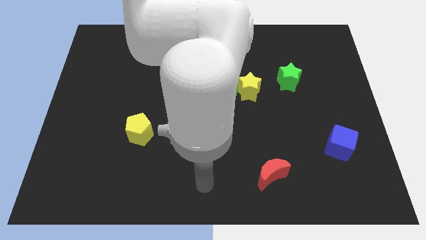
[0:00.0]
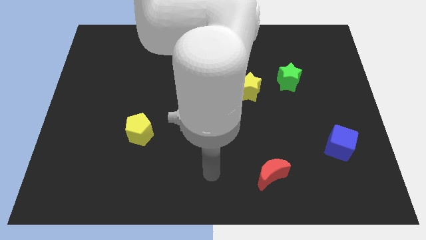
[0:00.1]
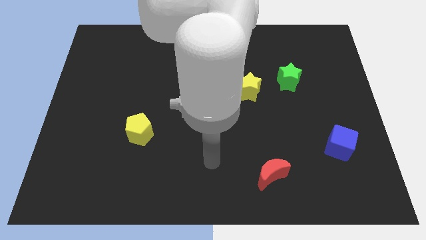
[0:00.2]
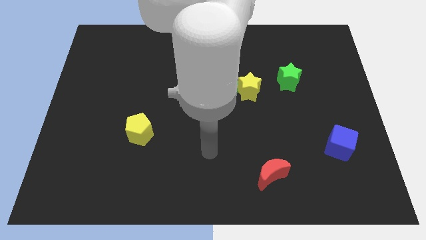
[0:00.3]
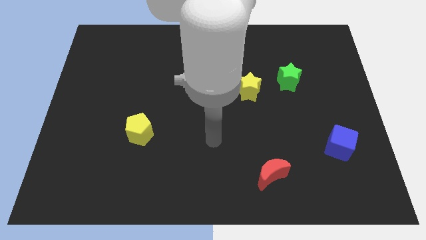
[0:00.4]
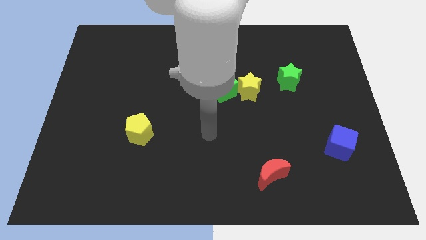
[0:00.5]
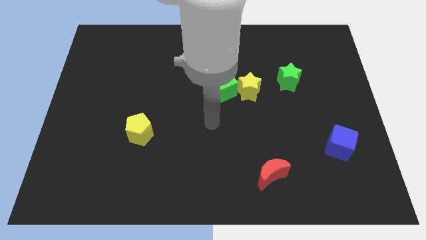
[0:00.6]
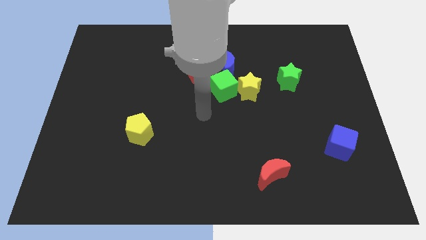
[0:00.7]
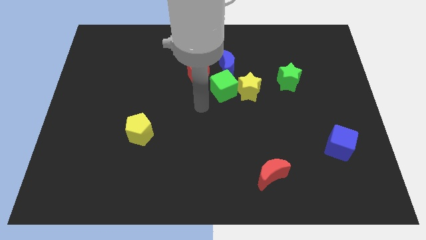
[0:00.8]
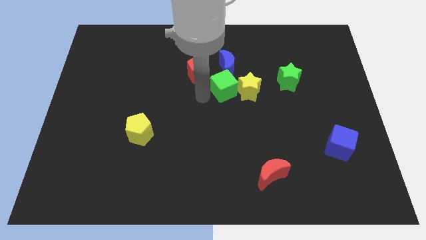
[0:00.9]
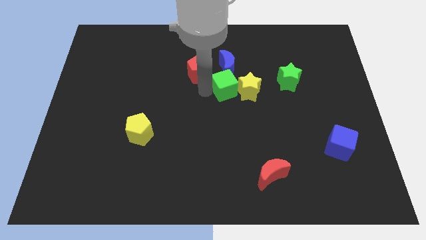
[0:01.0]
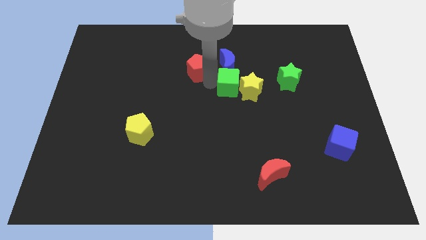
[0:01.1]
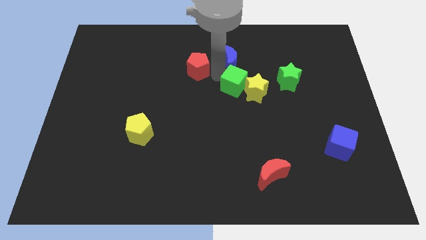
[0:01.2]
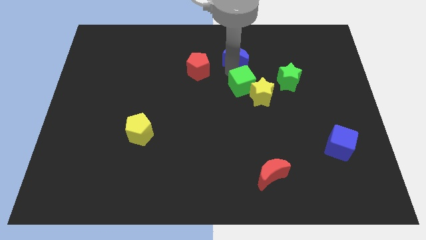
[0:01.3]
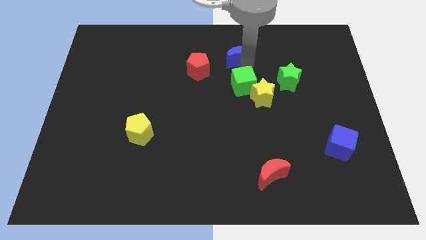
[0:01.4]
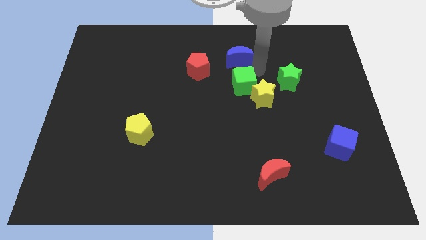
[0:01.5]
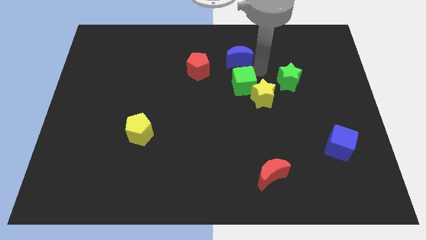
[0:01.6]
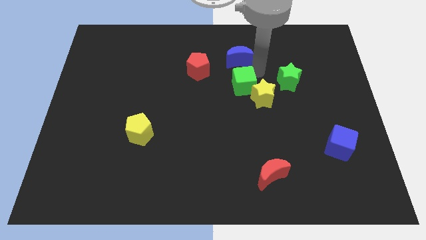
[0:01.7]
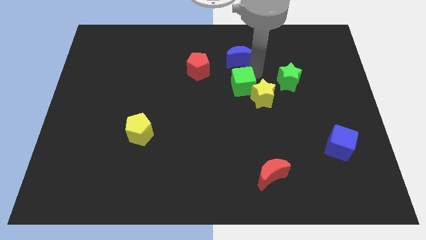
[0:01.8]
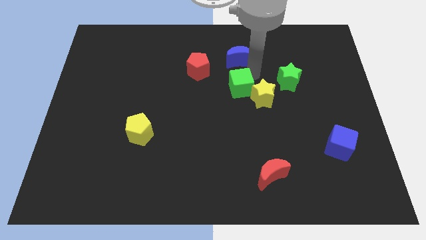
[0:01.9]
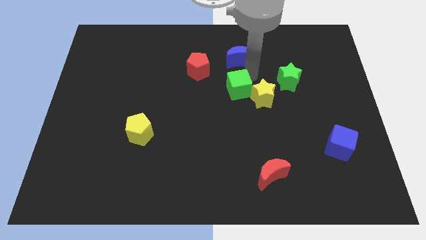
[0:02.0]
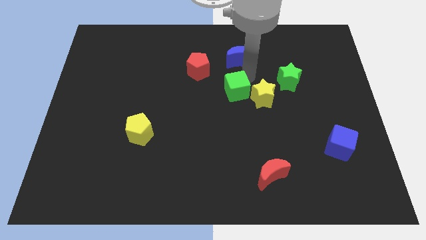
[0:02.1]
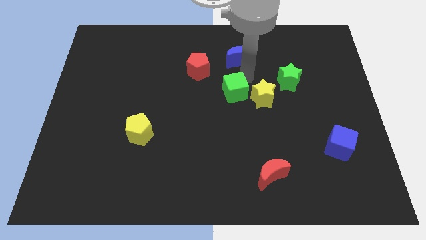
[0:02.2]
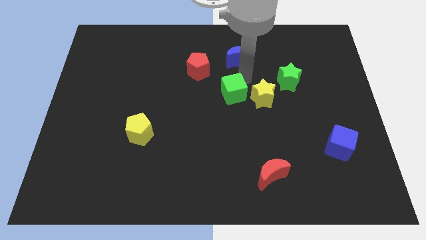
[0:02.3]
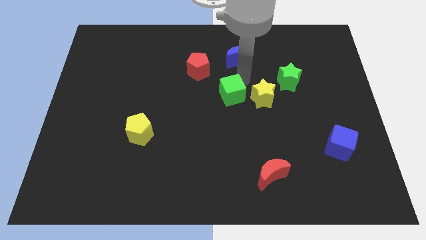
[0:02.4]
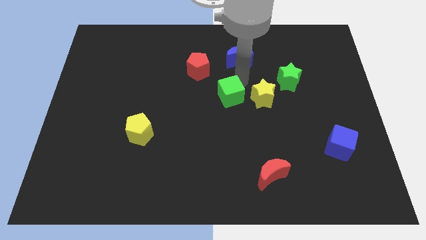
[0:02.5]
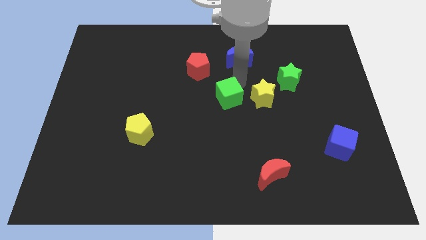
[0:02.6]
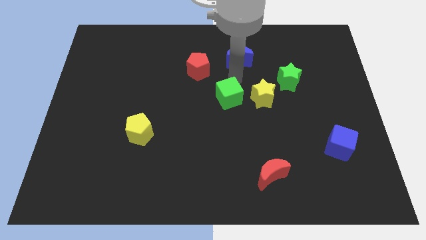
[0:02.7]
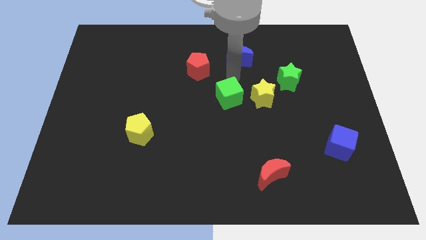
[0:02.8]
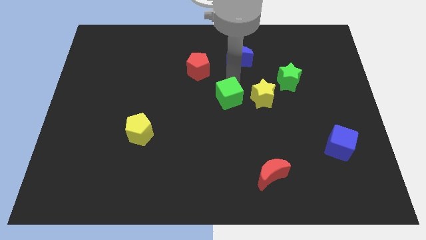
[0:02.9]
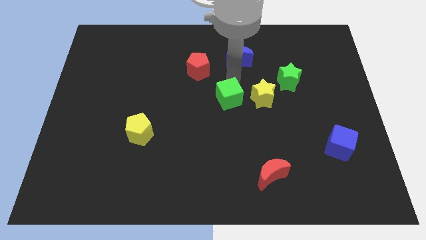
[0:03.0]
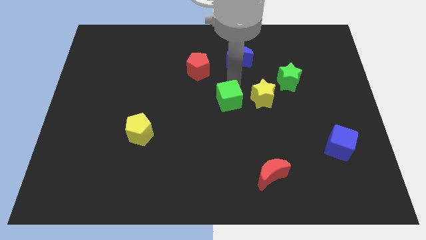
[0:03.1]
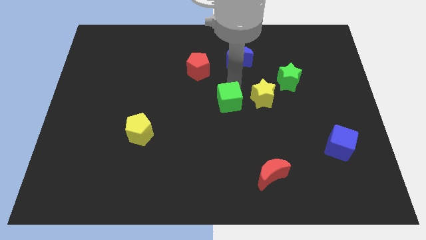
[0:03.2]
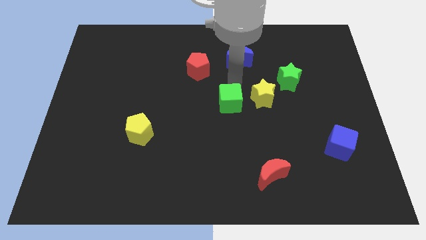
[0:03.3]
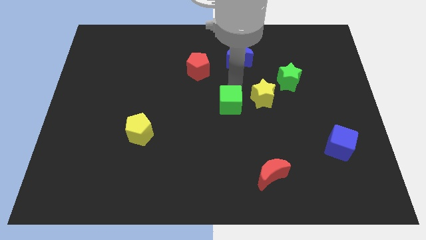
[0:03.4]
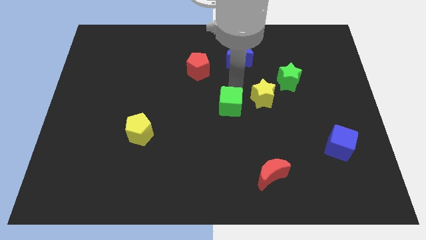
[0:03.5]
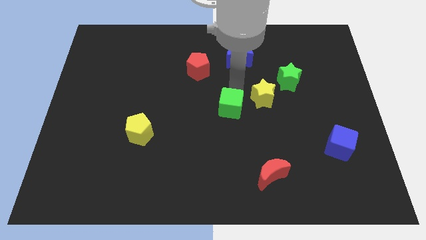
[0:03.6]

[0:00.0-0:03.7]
pull the green cube apart from the clump

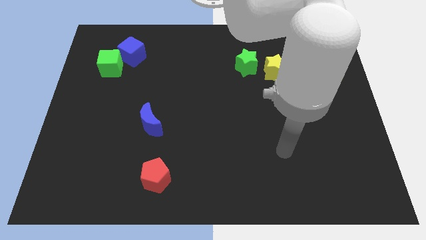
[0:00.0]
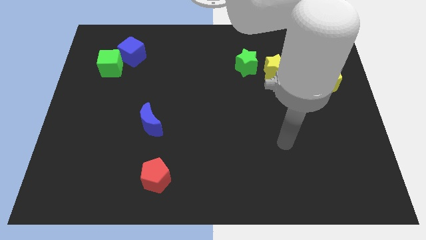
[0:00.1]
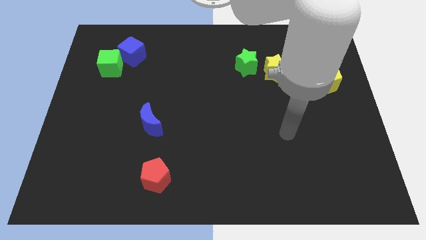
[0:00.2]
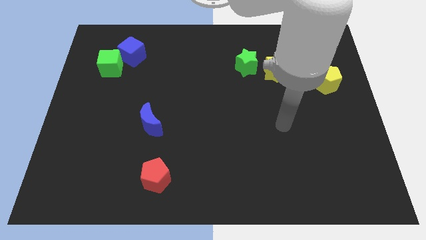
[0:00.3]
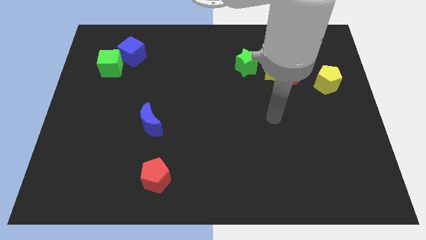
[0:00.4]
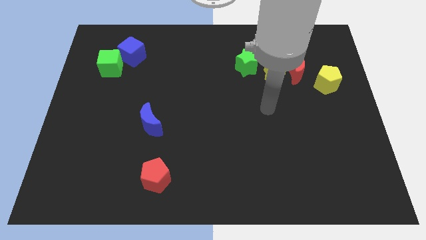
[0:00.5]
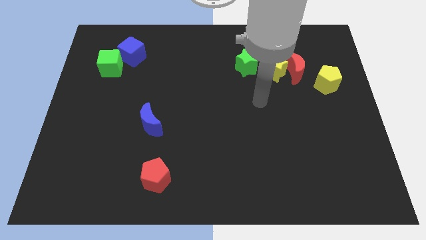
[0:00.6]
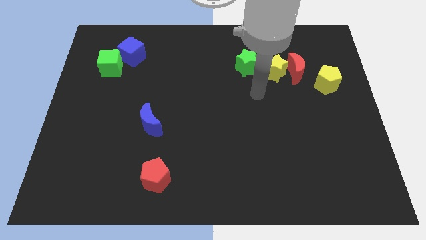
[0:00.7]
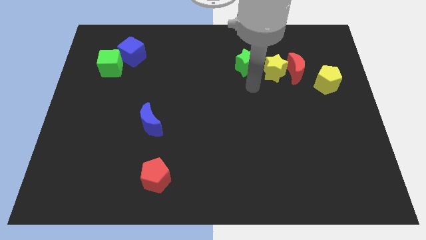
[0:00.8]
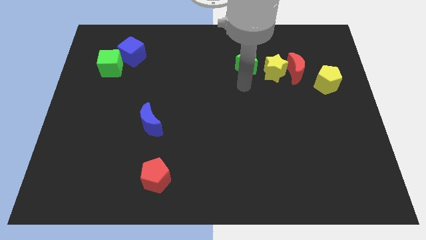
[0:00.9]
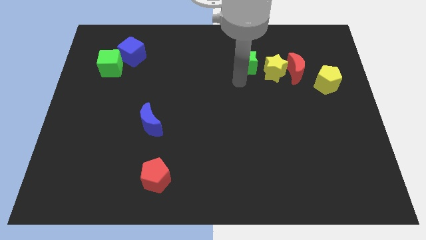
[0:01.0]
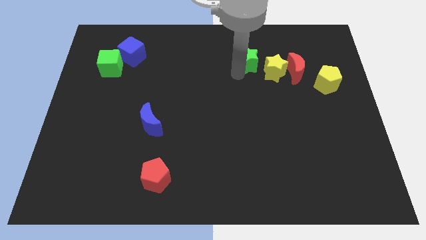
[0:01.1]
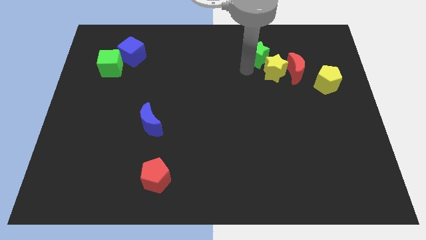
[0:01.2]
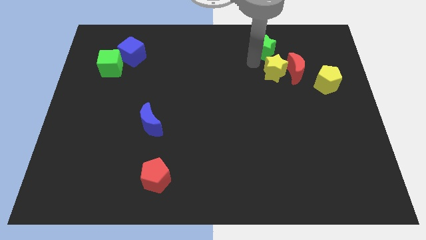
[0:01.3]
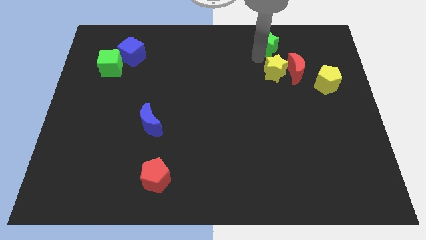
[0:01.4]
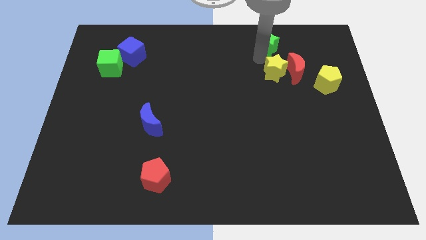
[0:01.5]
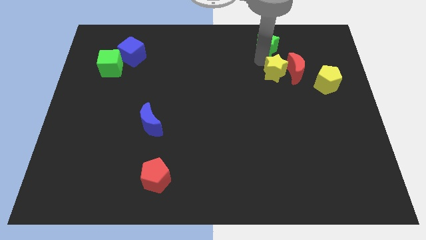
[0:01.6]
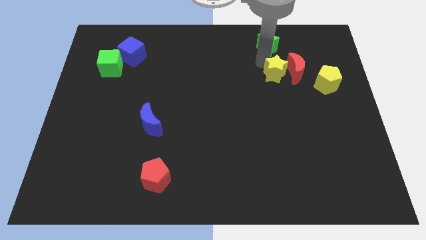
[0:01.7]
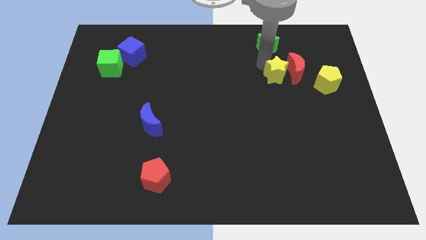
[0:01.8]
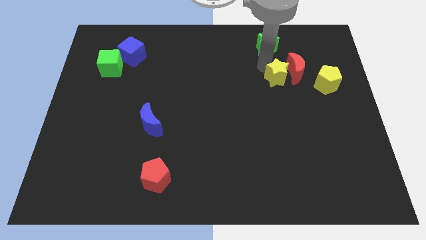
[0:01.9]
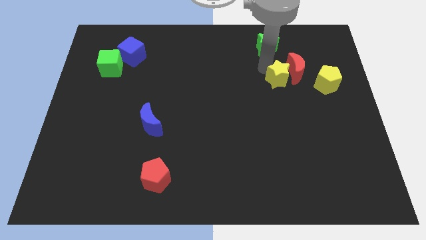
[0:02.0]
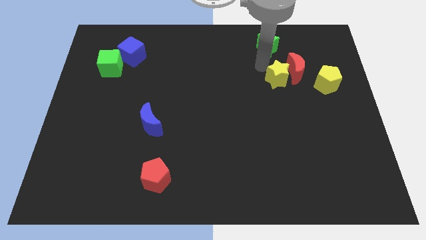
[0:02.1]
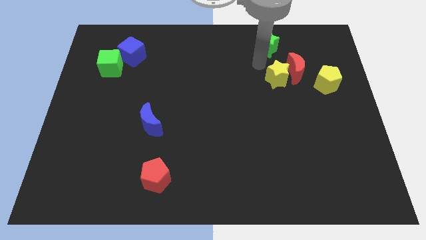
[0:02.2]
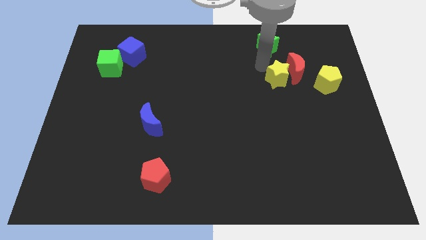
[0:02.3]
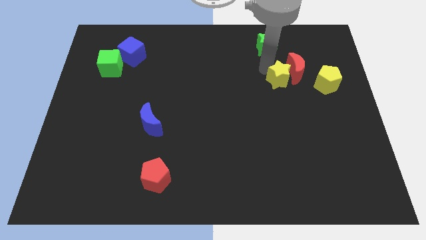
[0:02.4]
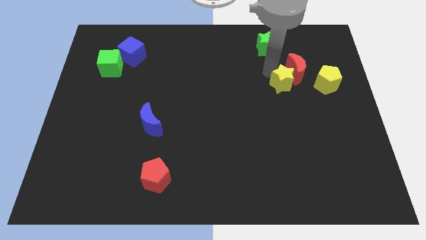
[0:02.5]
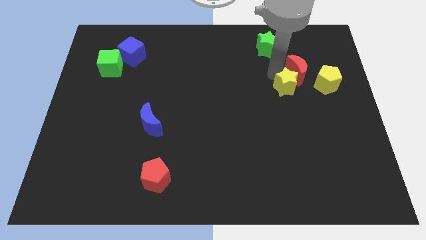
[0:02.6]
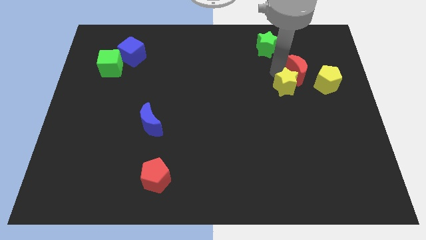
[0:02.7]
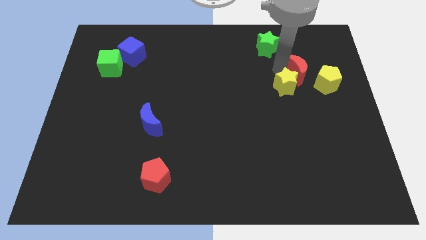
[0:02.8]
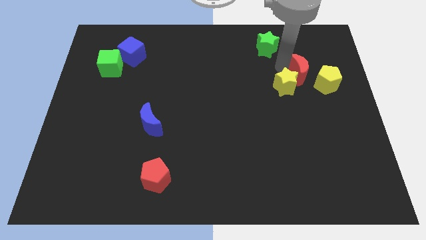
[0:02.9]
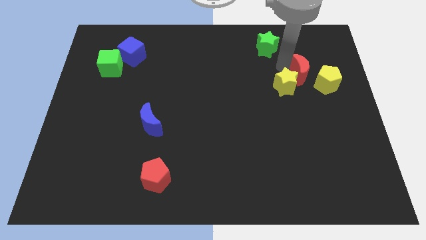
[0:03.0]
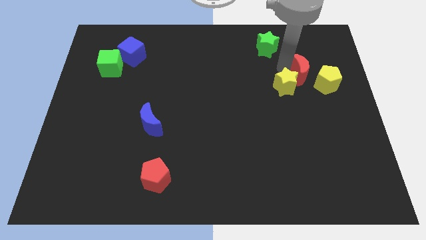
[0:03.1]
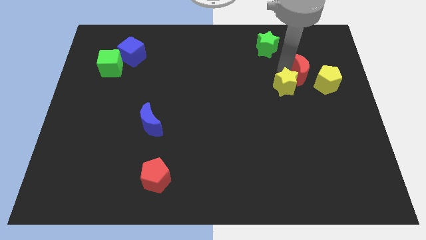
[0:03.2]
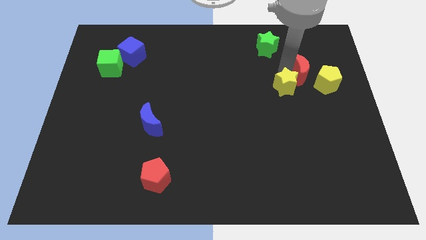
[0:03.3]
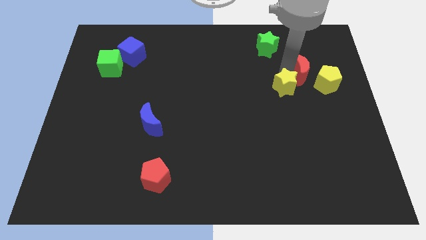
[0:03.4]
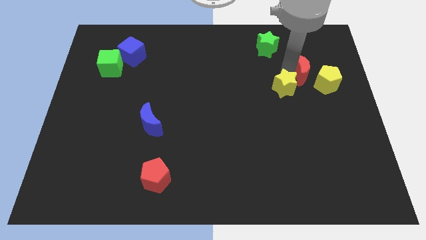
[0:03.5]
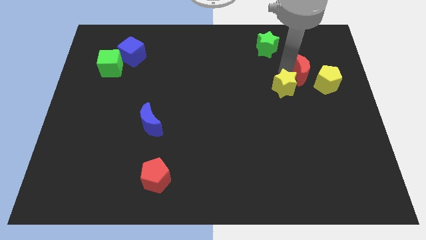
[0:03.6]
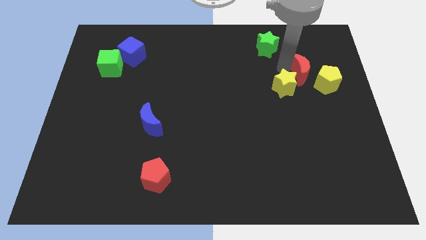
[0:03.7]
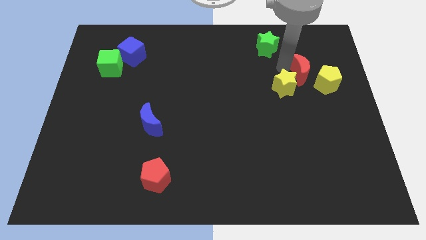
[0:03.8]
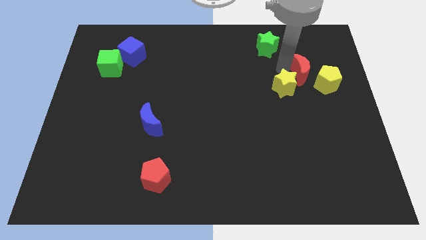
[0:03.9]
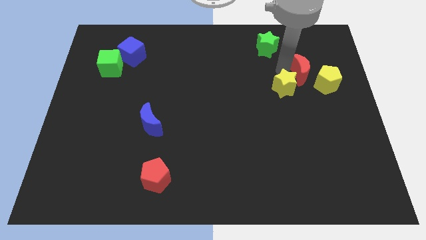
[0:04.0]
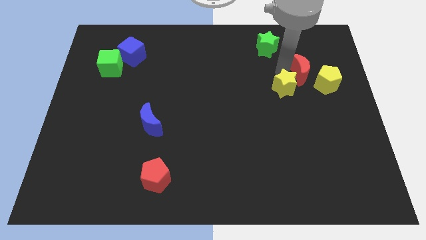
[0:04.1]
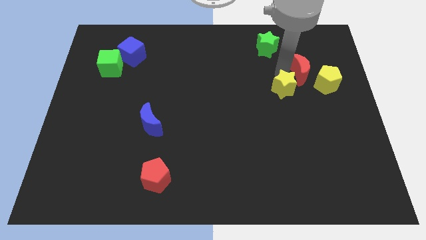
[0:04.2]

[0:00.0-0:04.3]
move the yellow star away from the red moon and green star

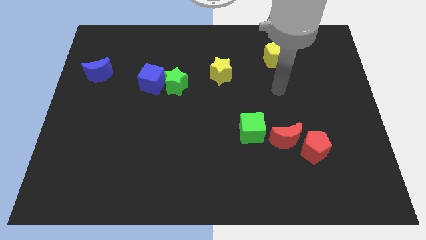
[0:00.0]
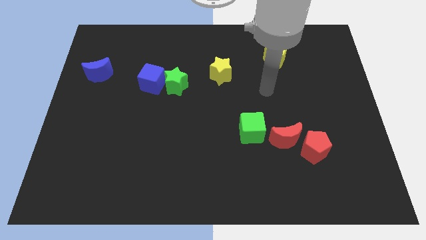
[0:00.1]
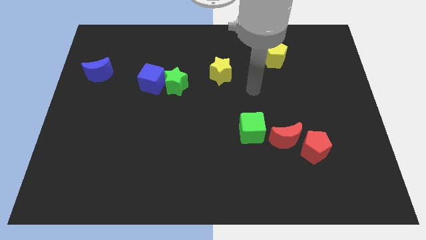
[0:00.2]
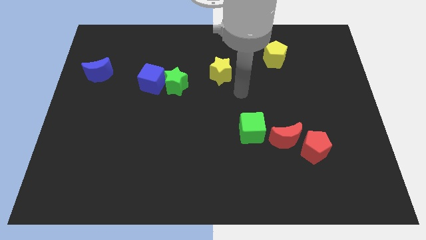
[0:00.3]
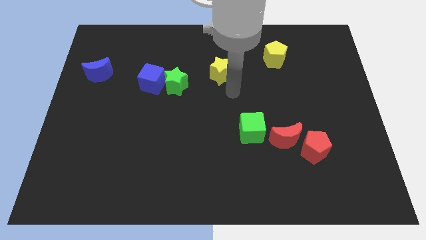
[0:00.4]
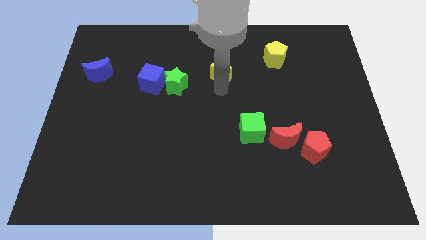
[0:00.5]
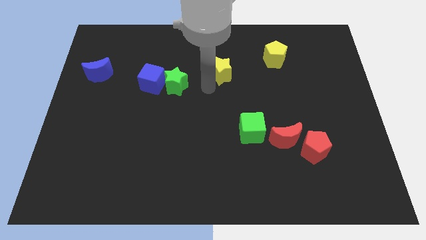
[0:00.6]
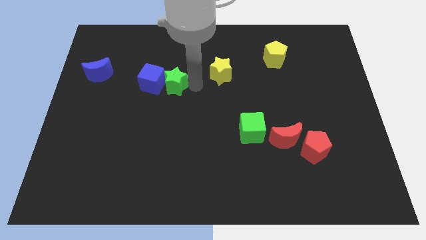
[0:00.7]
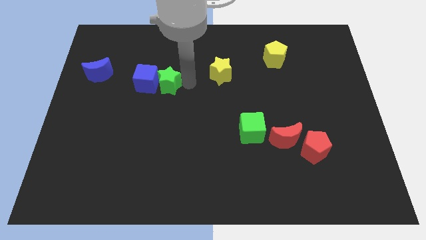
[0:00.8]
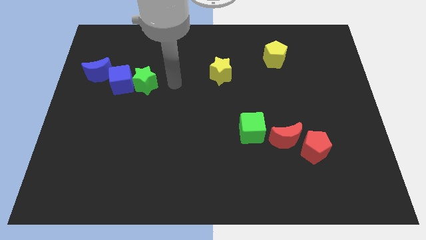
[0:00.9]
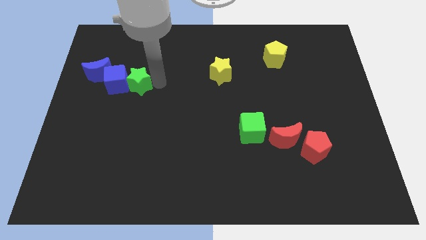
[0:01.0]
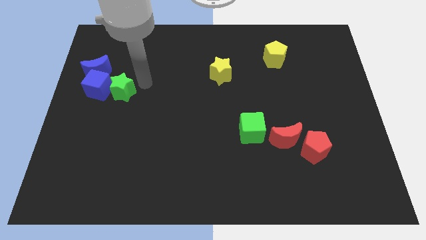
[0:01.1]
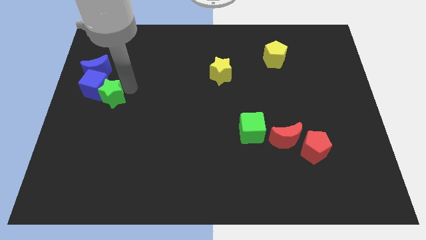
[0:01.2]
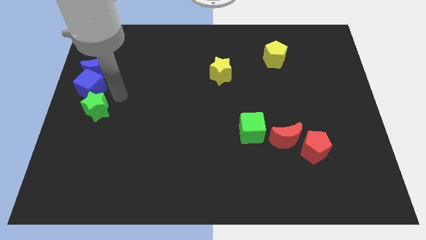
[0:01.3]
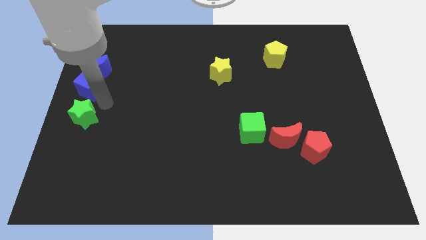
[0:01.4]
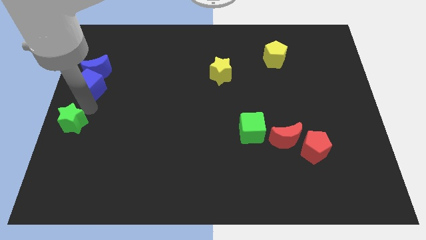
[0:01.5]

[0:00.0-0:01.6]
separate the blue cube from the green star
